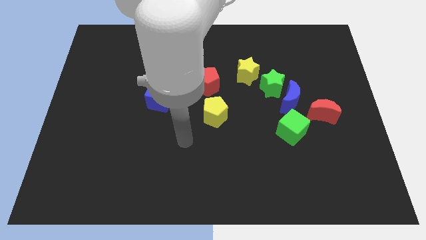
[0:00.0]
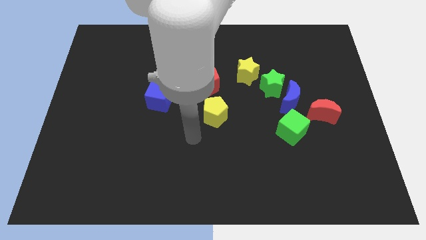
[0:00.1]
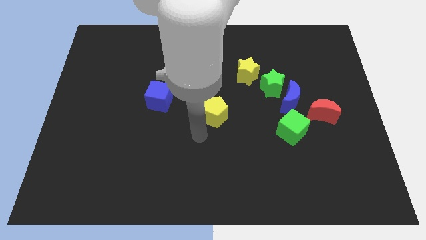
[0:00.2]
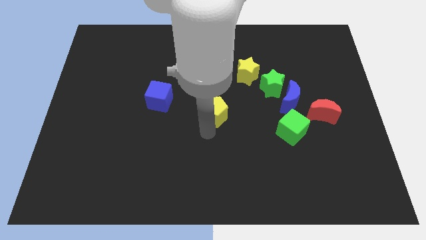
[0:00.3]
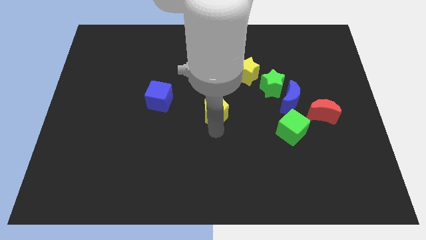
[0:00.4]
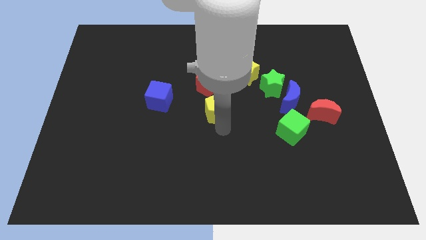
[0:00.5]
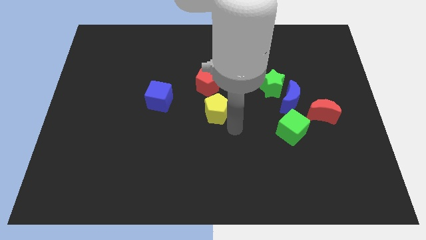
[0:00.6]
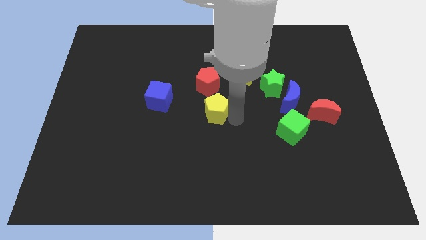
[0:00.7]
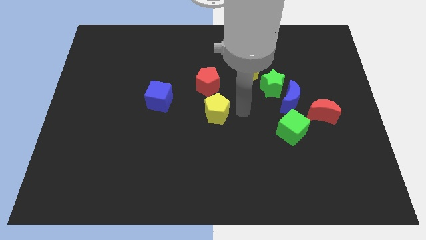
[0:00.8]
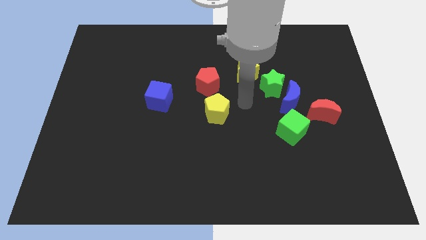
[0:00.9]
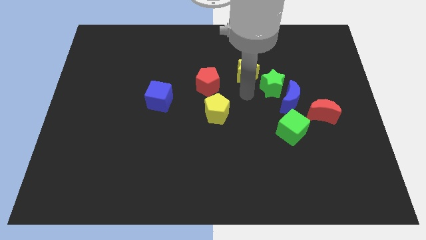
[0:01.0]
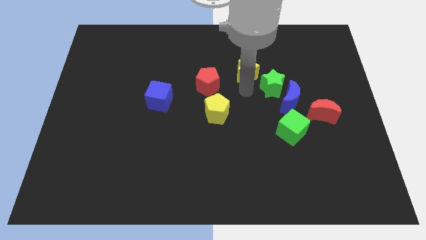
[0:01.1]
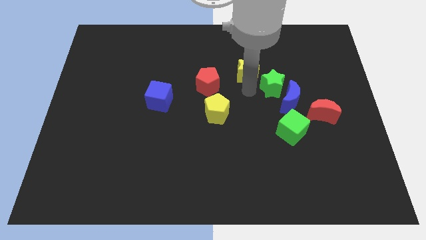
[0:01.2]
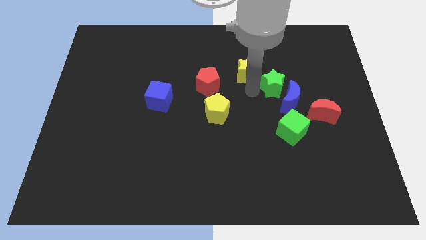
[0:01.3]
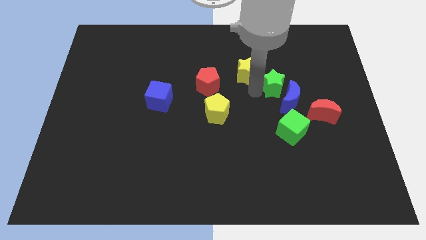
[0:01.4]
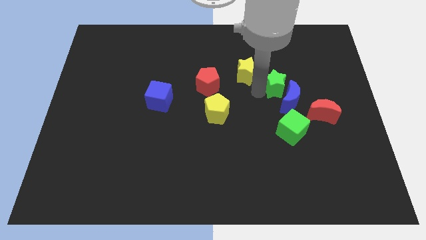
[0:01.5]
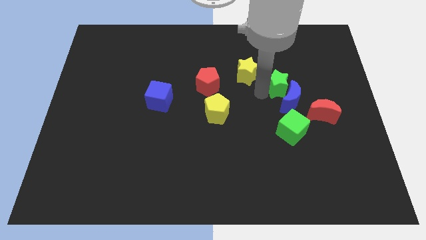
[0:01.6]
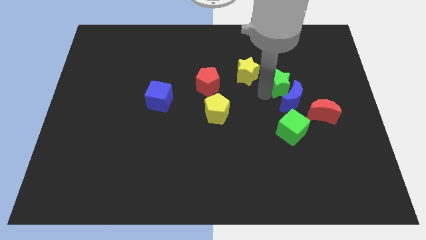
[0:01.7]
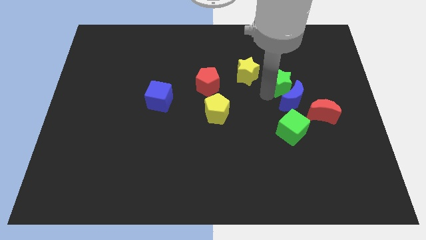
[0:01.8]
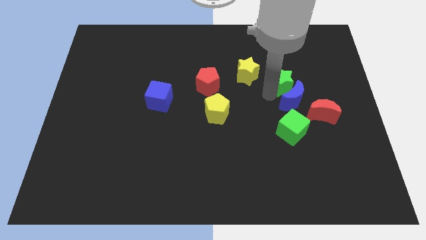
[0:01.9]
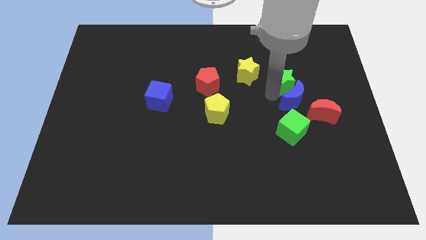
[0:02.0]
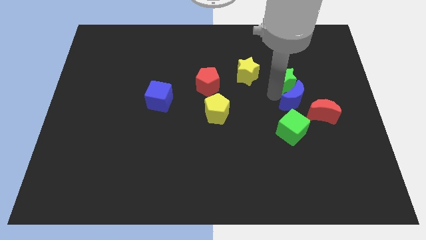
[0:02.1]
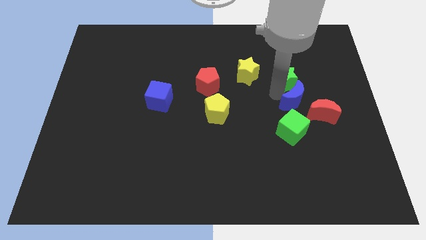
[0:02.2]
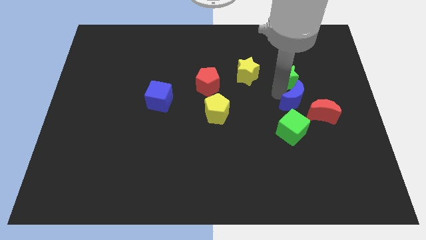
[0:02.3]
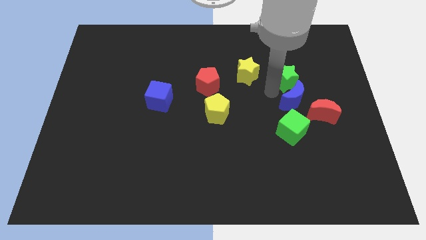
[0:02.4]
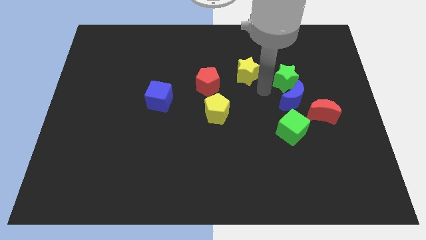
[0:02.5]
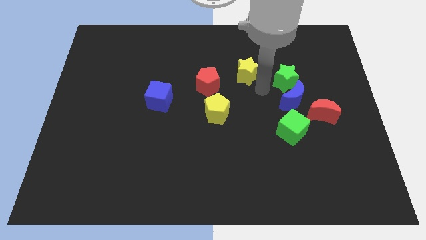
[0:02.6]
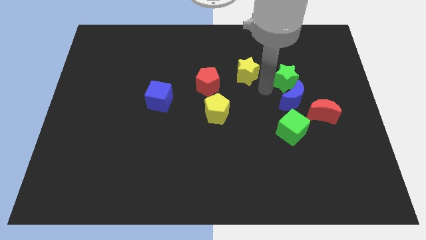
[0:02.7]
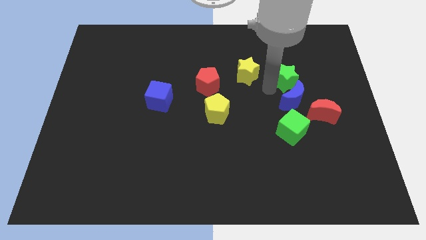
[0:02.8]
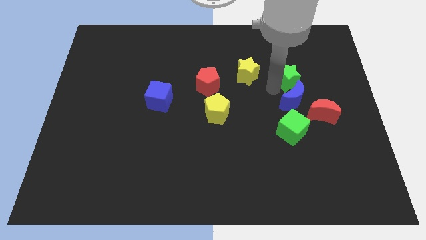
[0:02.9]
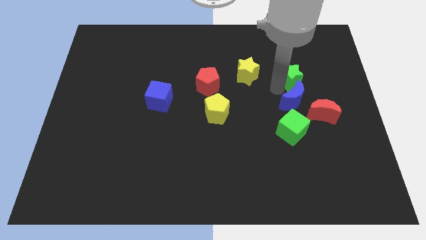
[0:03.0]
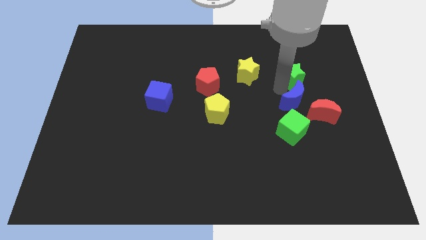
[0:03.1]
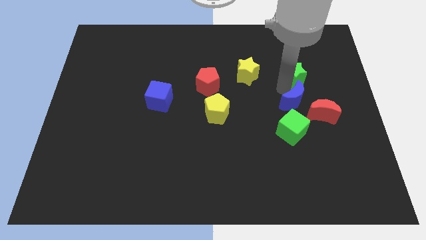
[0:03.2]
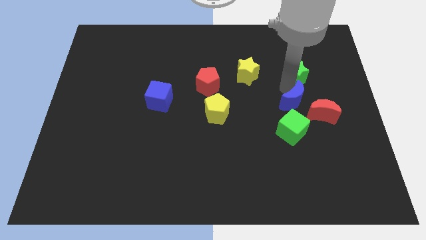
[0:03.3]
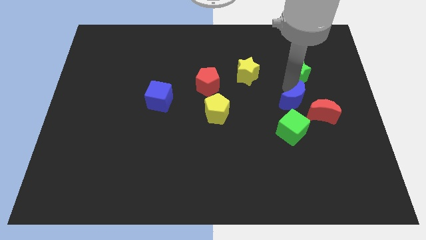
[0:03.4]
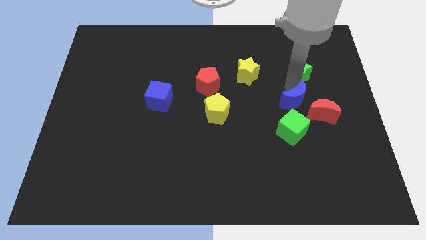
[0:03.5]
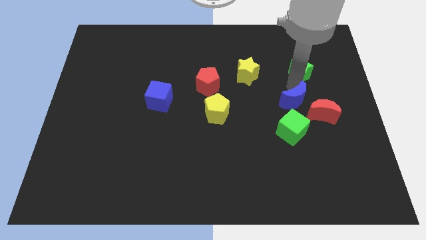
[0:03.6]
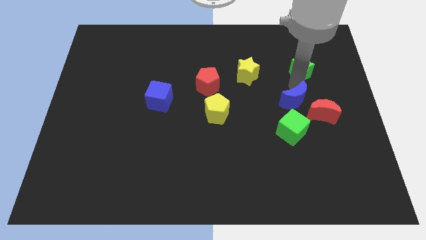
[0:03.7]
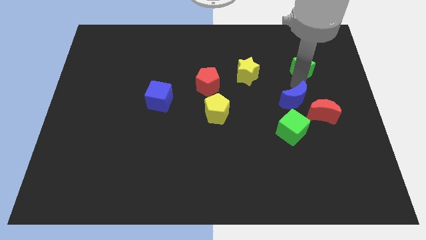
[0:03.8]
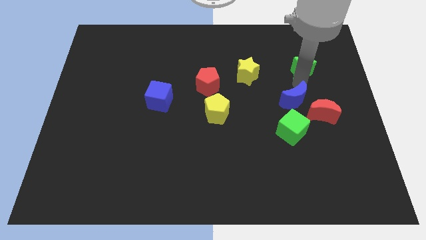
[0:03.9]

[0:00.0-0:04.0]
move the green star away from the blue moon and yellow star

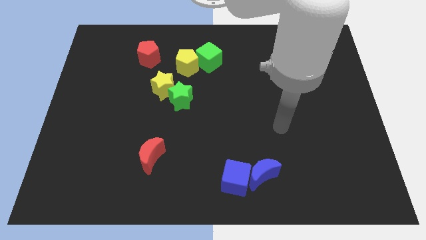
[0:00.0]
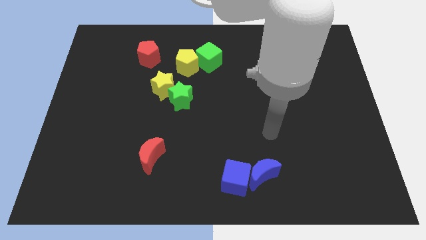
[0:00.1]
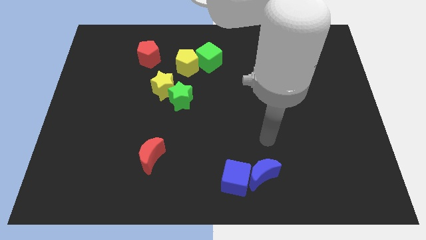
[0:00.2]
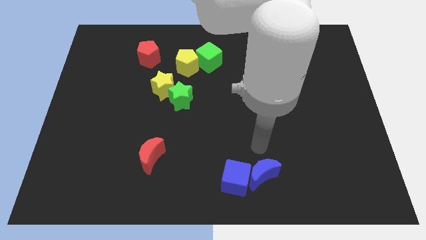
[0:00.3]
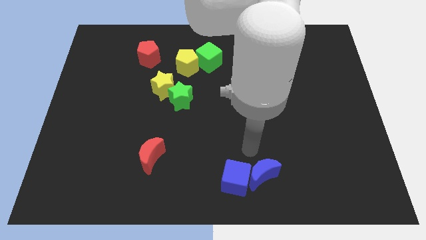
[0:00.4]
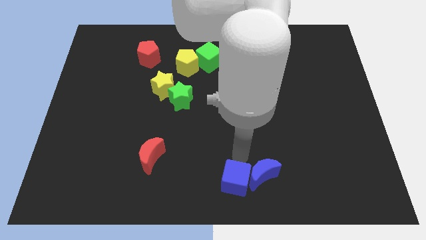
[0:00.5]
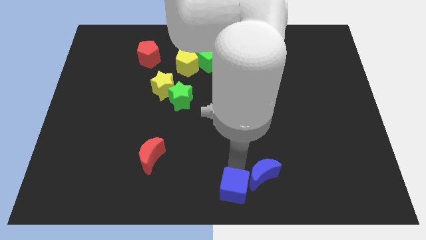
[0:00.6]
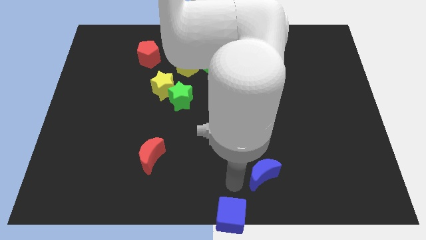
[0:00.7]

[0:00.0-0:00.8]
separate the blue moon from the blue cube

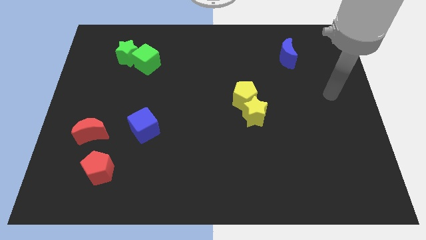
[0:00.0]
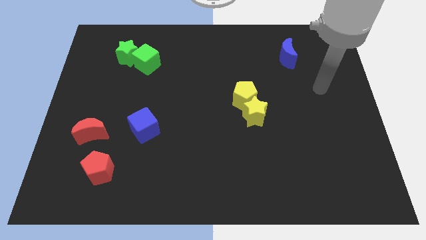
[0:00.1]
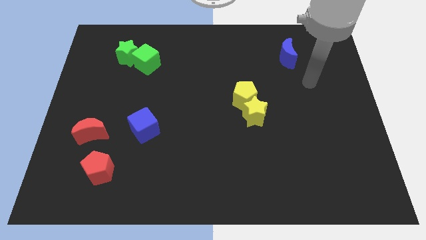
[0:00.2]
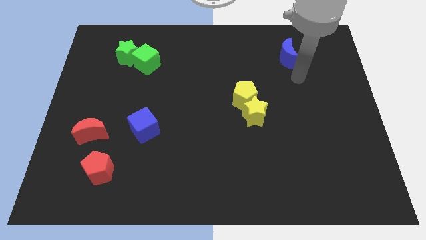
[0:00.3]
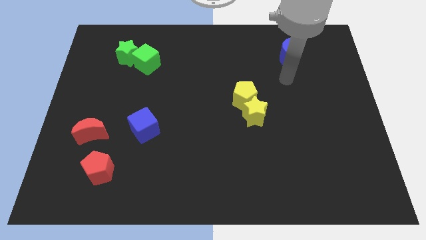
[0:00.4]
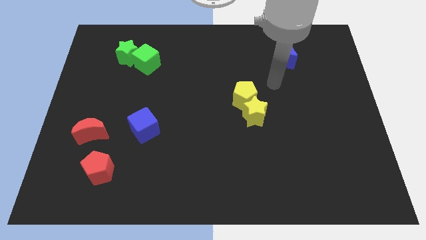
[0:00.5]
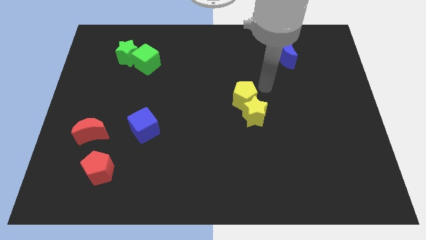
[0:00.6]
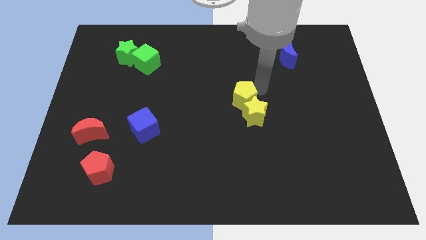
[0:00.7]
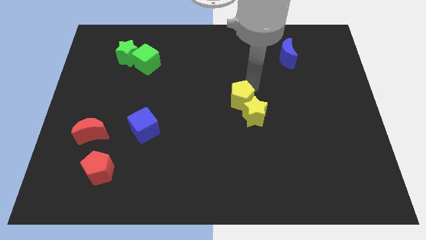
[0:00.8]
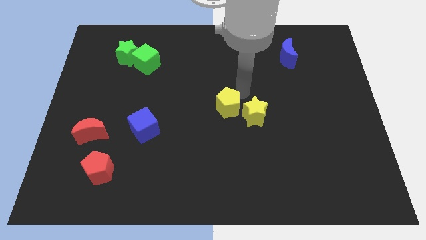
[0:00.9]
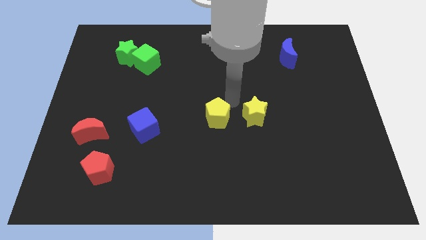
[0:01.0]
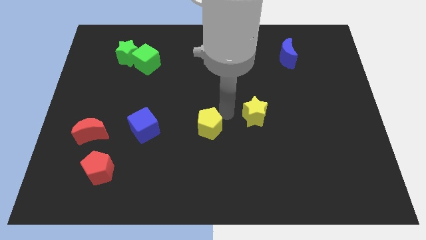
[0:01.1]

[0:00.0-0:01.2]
separate the yellow star from the yellow pentagon

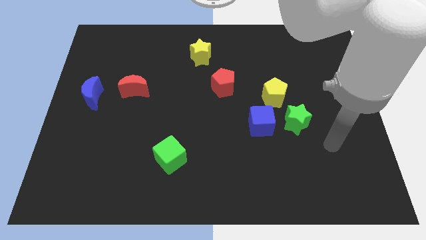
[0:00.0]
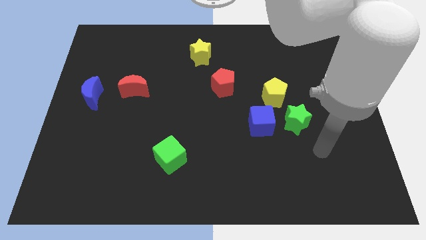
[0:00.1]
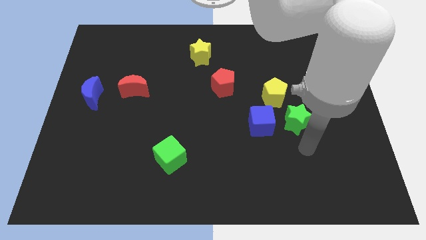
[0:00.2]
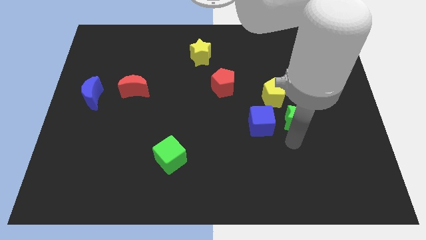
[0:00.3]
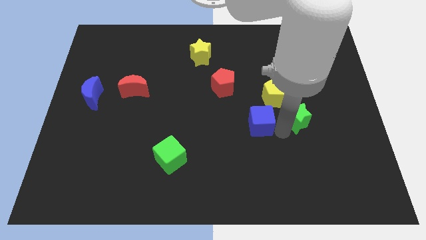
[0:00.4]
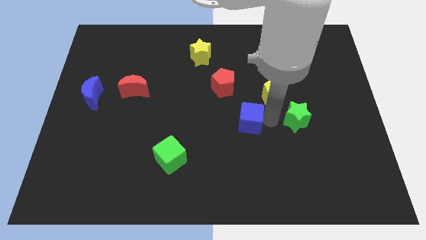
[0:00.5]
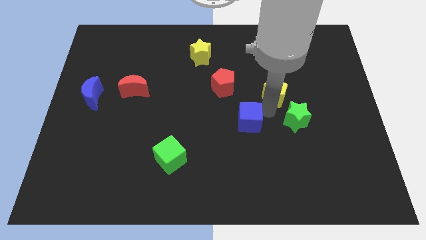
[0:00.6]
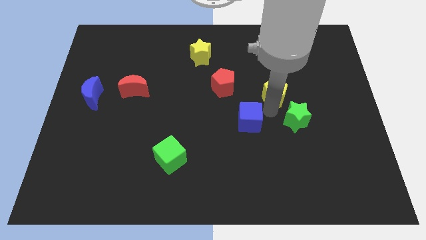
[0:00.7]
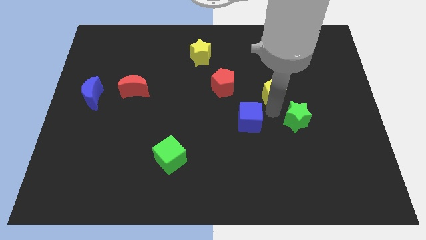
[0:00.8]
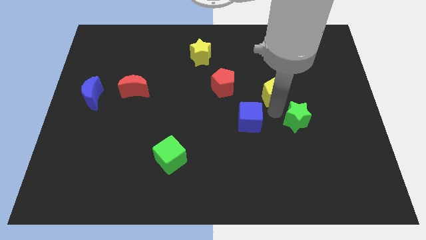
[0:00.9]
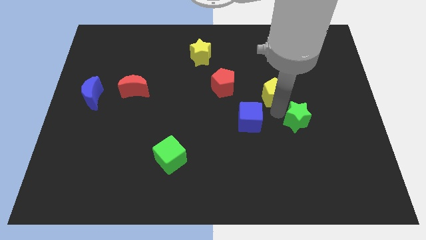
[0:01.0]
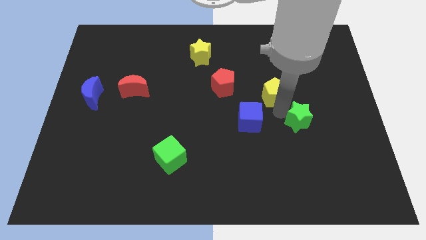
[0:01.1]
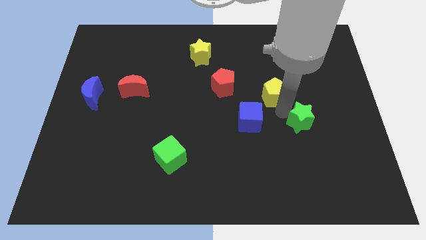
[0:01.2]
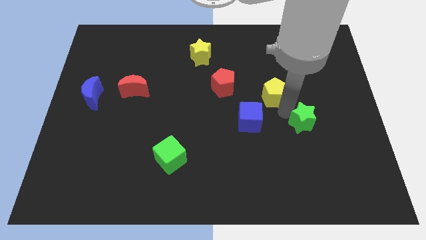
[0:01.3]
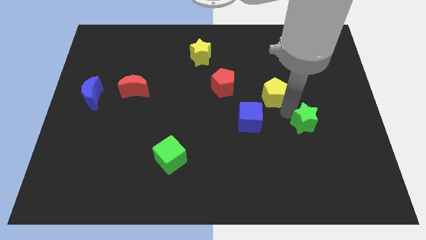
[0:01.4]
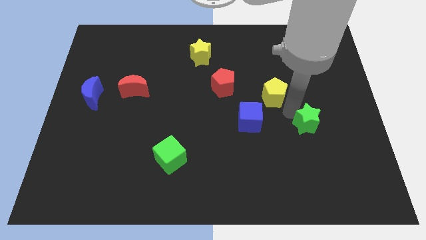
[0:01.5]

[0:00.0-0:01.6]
pull the green star apart from the blue cube and yellow pentagon

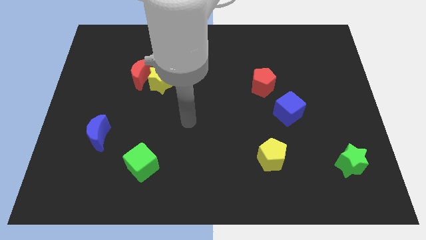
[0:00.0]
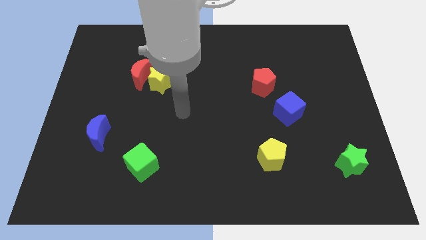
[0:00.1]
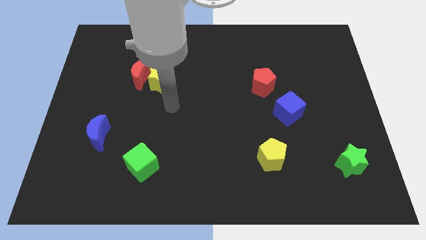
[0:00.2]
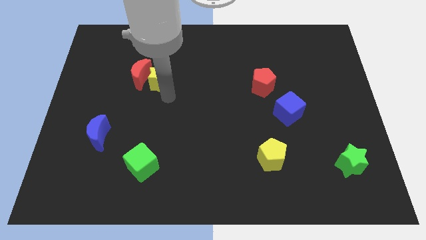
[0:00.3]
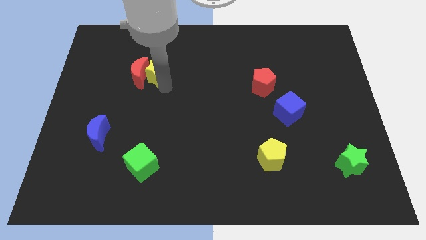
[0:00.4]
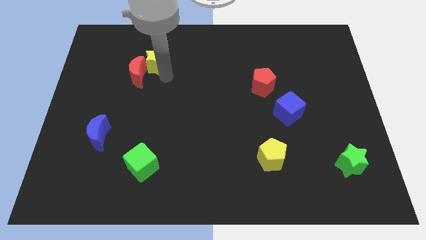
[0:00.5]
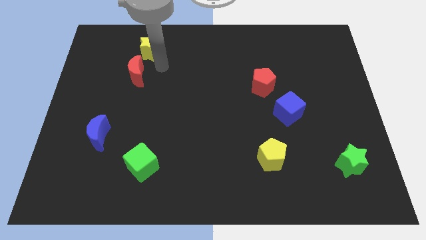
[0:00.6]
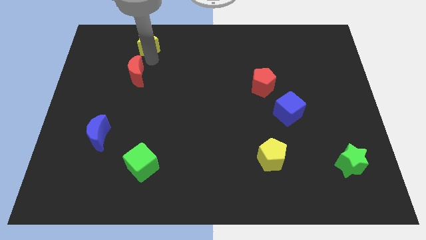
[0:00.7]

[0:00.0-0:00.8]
pull the red moon apart from the yellow star

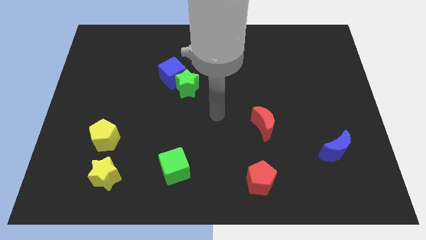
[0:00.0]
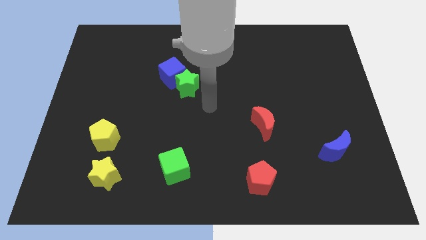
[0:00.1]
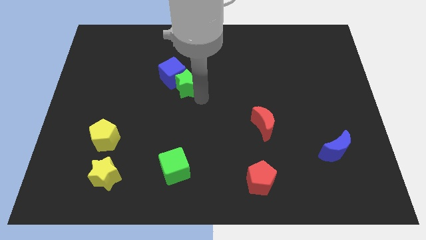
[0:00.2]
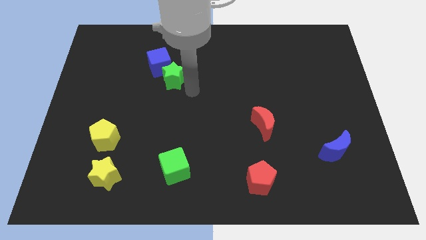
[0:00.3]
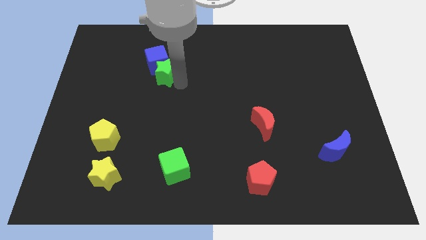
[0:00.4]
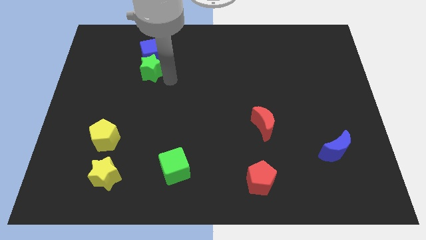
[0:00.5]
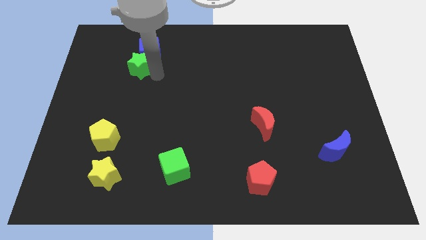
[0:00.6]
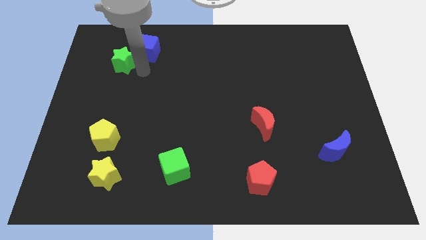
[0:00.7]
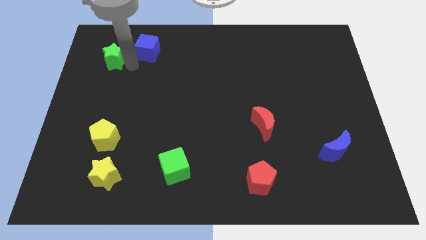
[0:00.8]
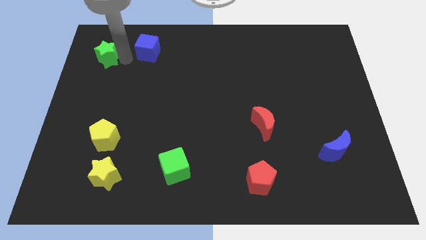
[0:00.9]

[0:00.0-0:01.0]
separate the blue cube from the green star
